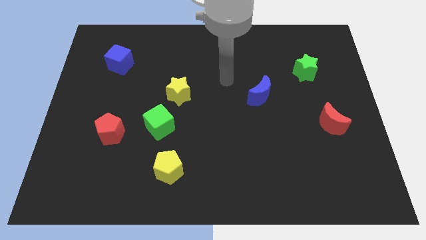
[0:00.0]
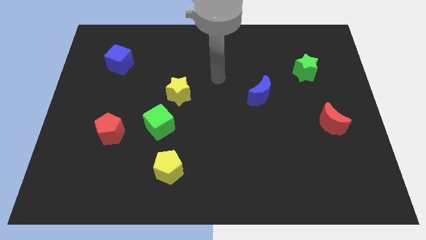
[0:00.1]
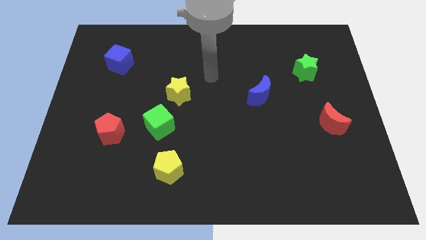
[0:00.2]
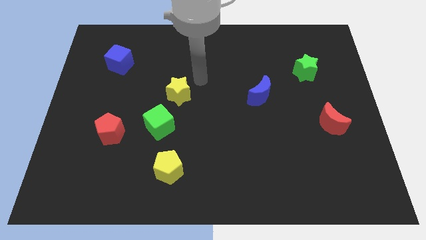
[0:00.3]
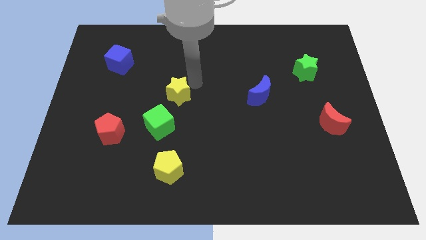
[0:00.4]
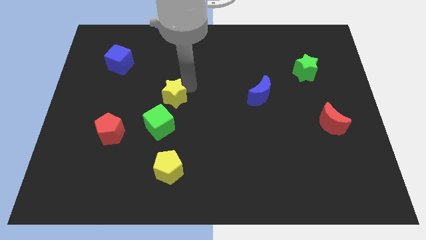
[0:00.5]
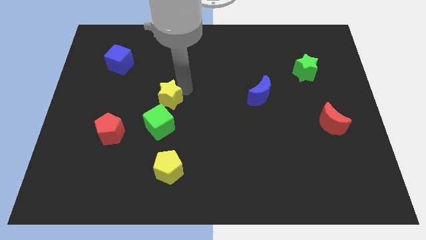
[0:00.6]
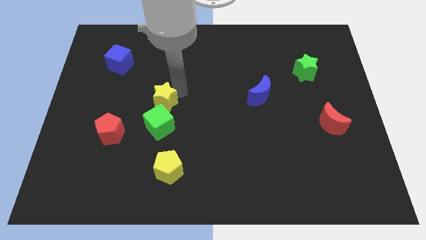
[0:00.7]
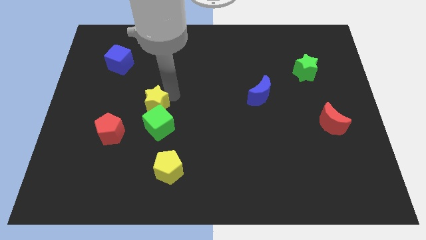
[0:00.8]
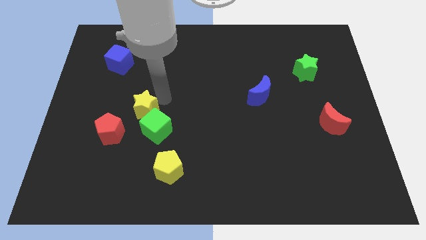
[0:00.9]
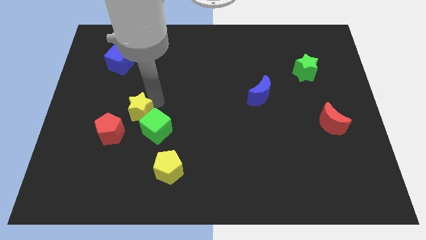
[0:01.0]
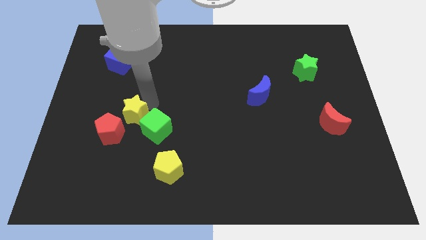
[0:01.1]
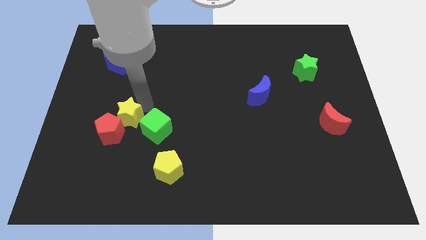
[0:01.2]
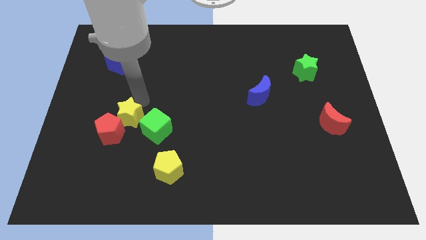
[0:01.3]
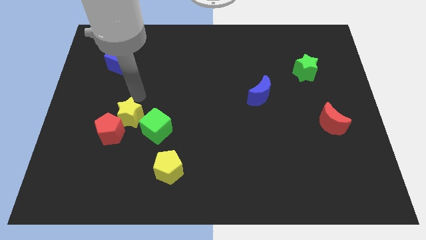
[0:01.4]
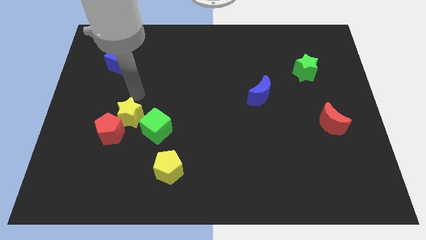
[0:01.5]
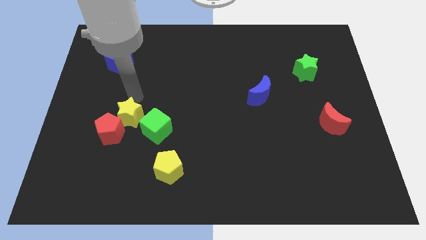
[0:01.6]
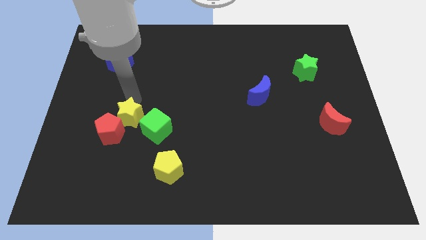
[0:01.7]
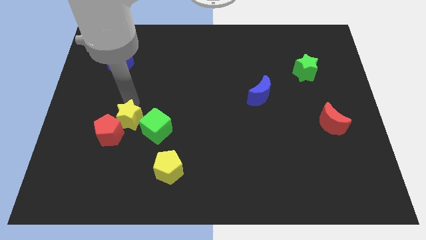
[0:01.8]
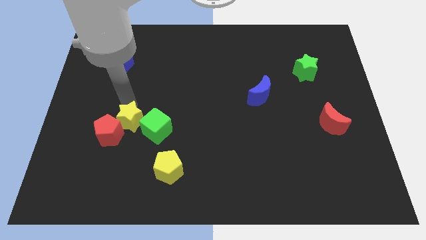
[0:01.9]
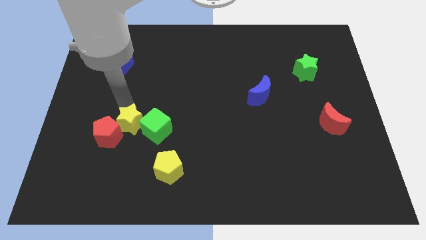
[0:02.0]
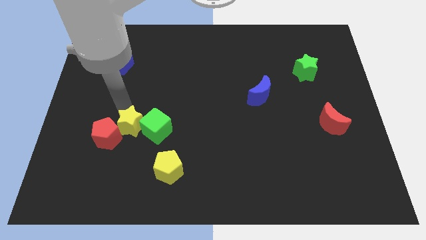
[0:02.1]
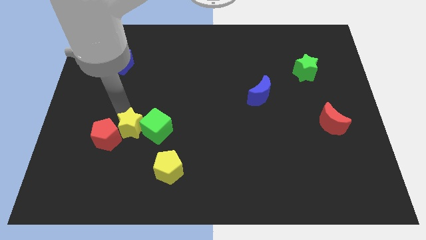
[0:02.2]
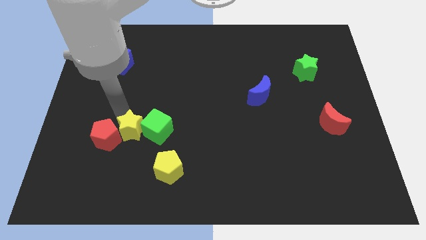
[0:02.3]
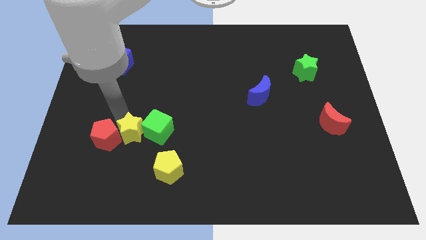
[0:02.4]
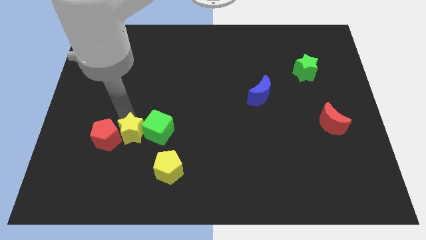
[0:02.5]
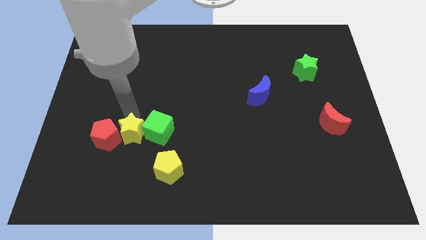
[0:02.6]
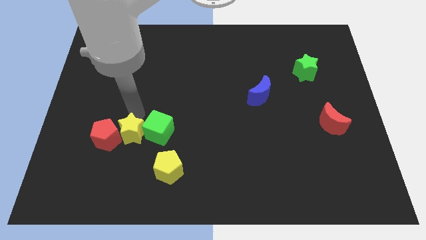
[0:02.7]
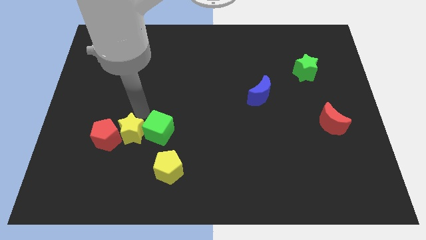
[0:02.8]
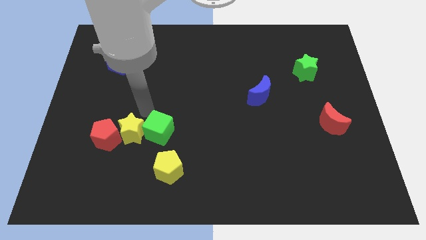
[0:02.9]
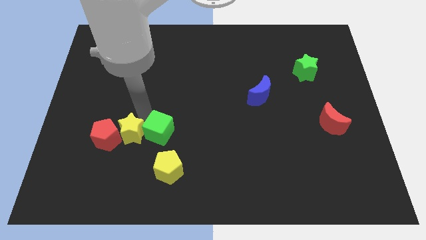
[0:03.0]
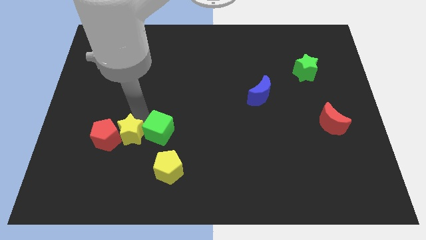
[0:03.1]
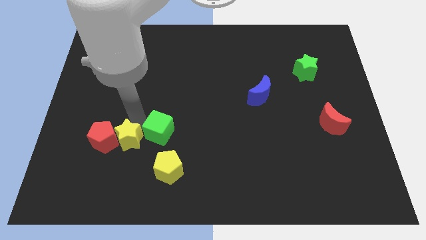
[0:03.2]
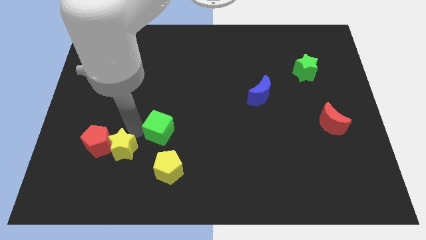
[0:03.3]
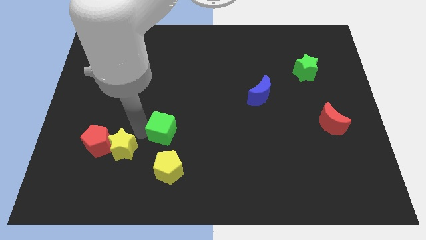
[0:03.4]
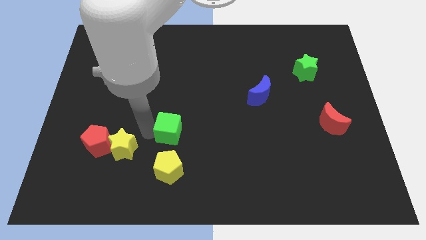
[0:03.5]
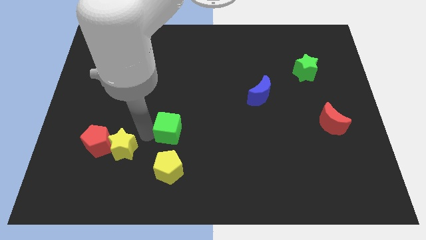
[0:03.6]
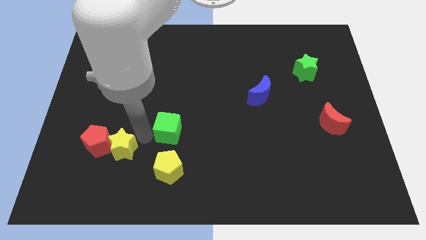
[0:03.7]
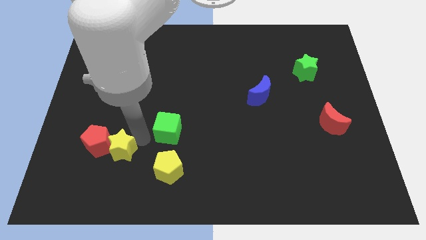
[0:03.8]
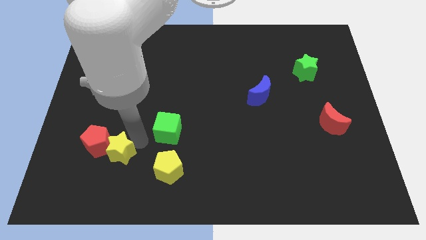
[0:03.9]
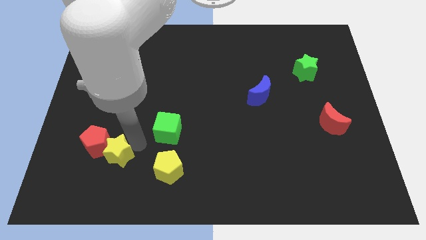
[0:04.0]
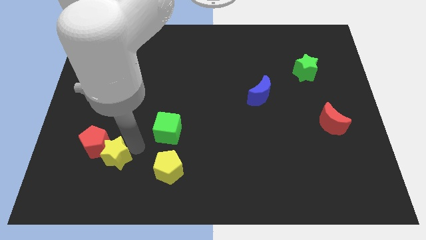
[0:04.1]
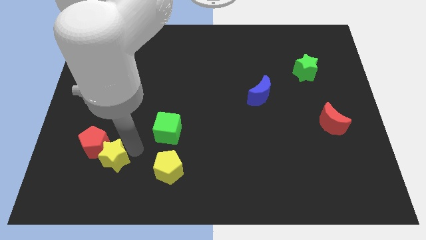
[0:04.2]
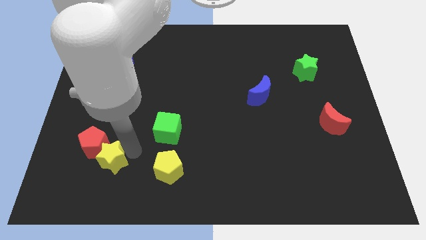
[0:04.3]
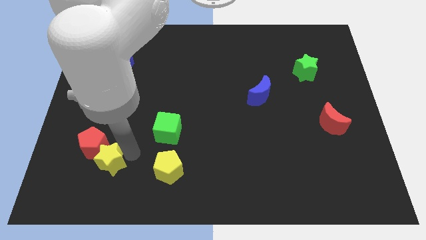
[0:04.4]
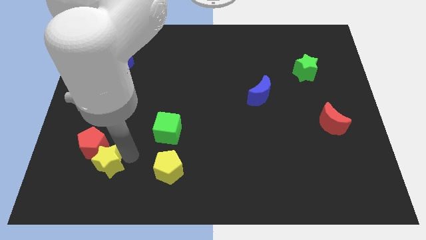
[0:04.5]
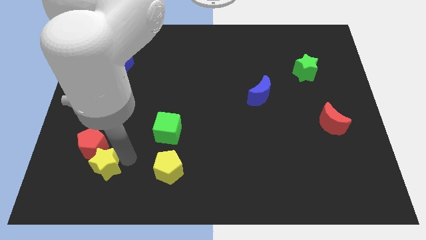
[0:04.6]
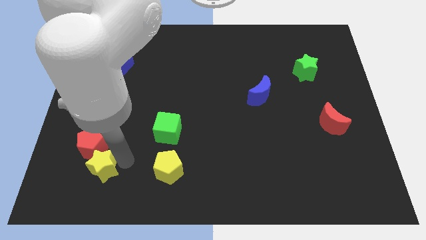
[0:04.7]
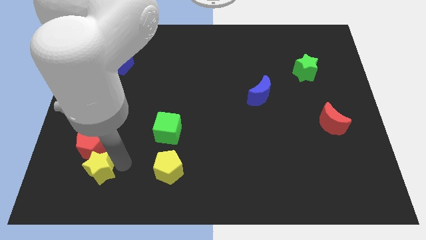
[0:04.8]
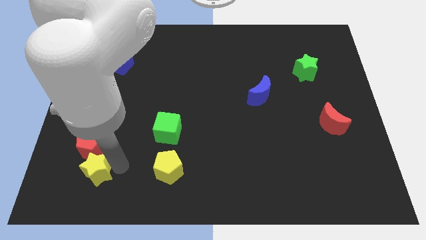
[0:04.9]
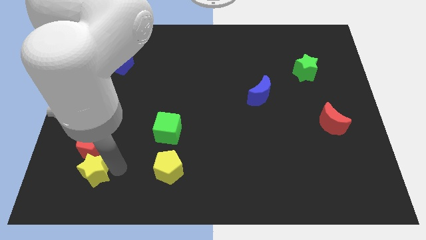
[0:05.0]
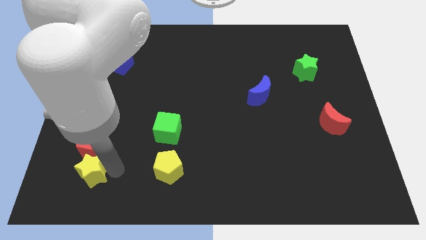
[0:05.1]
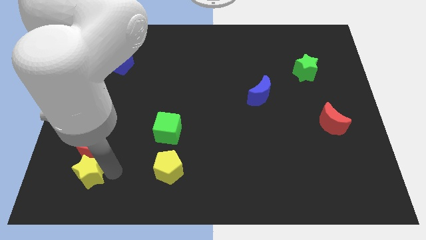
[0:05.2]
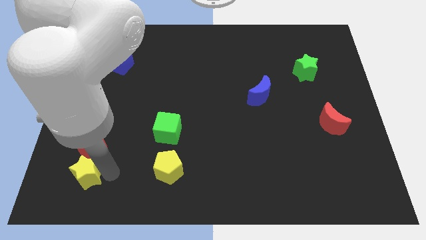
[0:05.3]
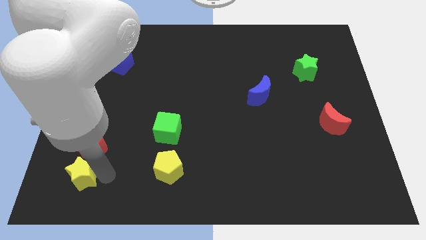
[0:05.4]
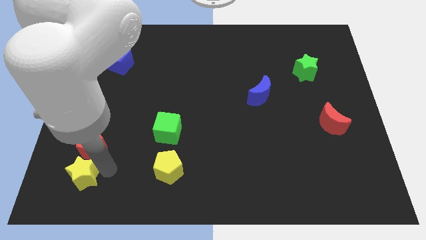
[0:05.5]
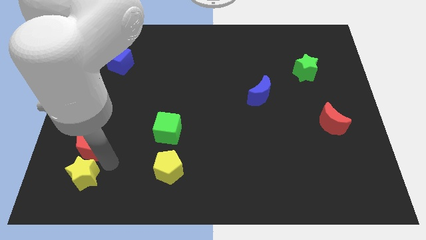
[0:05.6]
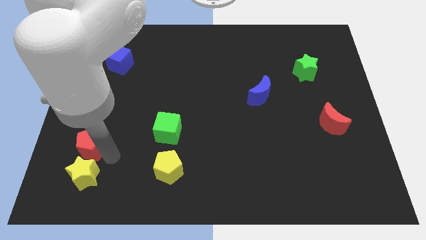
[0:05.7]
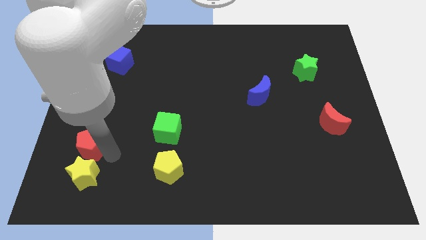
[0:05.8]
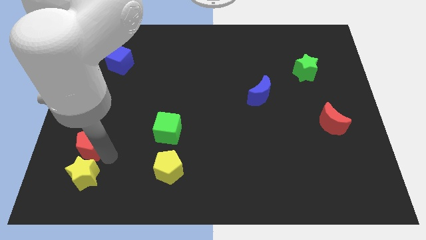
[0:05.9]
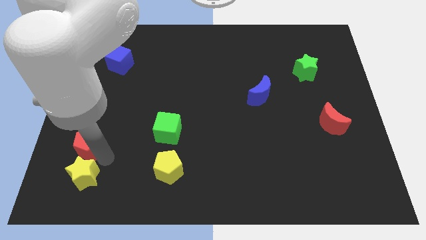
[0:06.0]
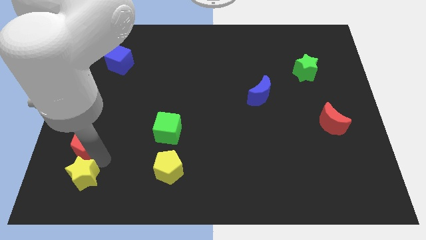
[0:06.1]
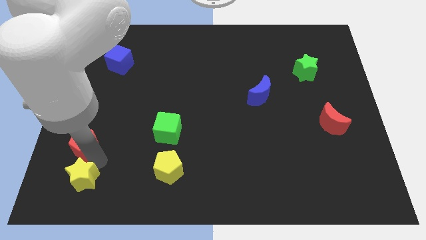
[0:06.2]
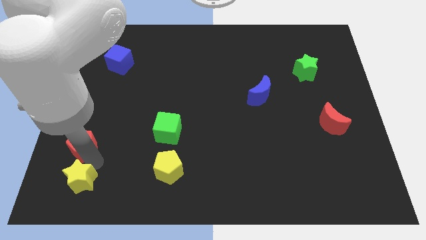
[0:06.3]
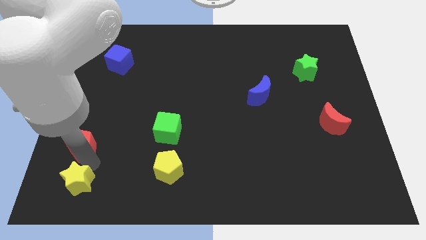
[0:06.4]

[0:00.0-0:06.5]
push the yellow star to the bottom left
